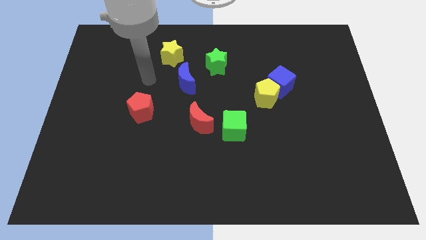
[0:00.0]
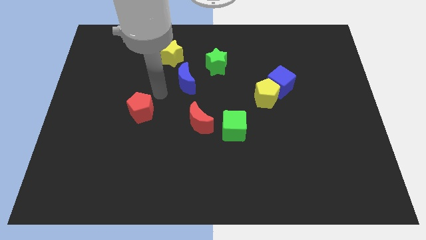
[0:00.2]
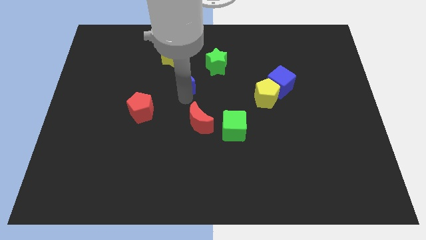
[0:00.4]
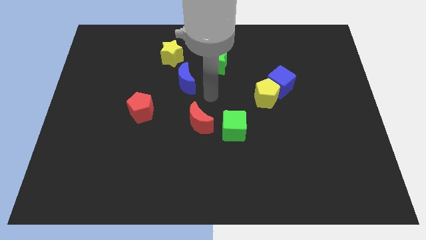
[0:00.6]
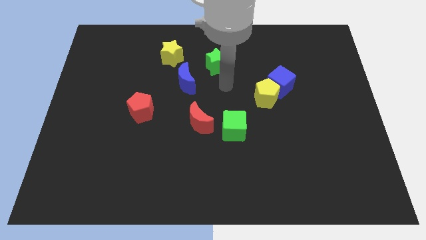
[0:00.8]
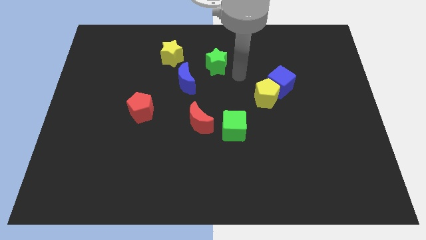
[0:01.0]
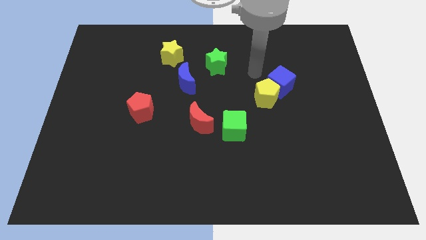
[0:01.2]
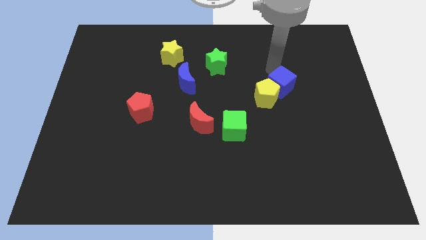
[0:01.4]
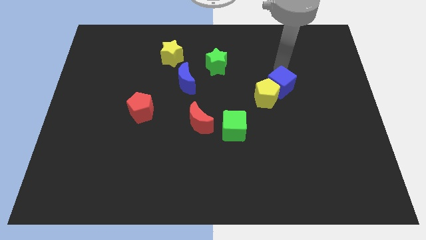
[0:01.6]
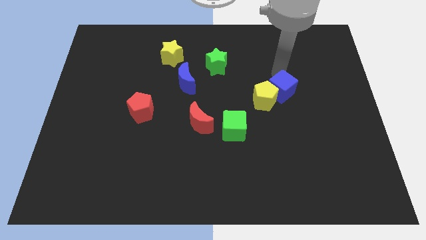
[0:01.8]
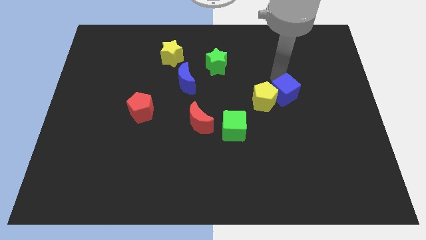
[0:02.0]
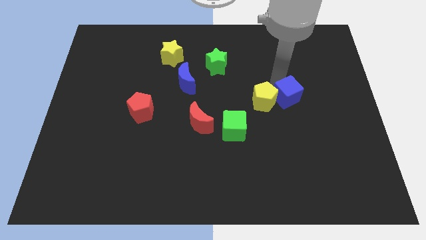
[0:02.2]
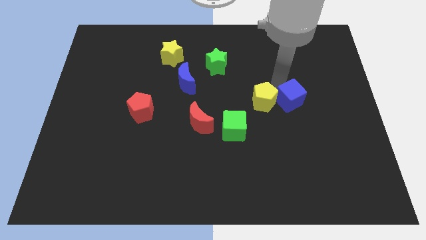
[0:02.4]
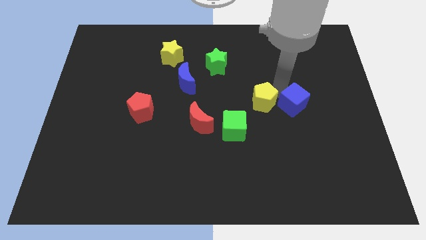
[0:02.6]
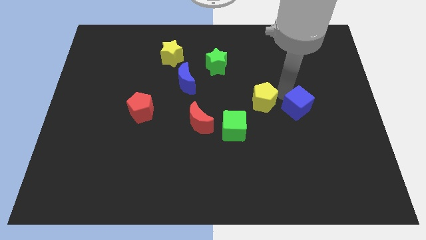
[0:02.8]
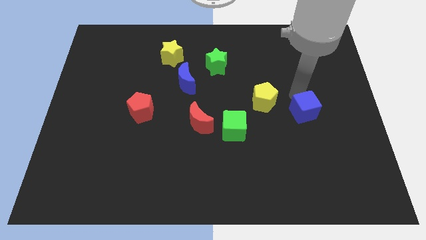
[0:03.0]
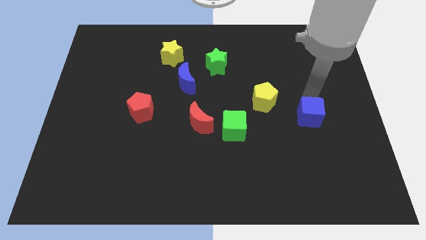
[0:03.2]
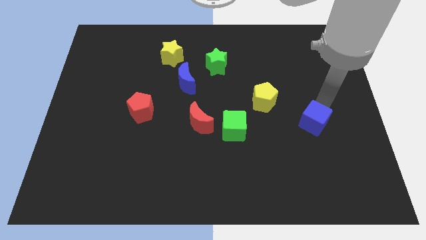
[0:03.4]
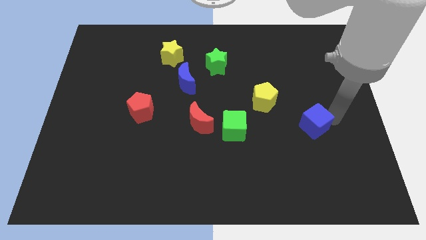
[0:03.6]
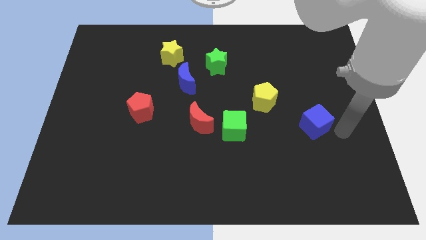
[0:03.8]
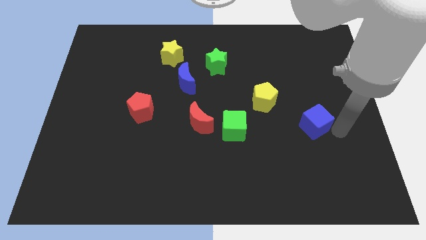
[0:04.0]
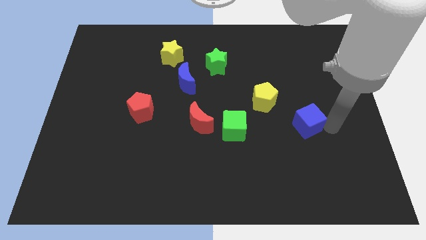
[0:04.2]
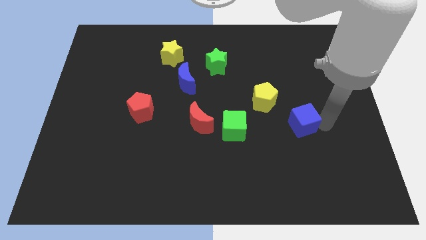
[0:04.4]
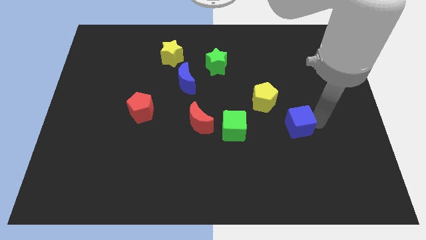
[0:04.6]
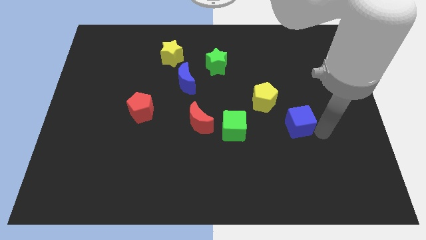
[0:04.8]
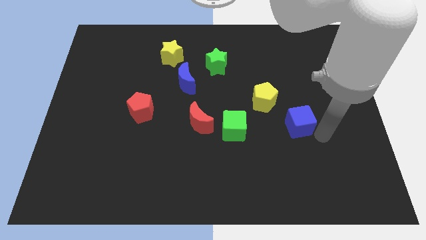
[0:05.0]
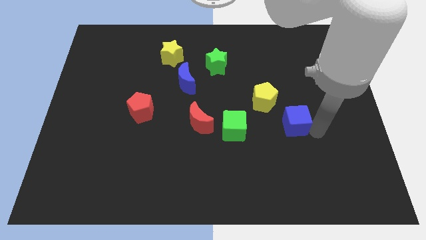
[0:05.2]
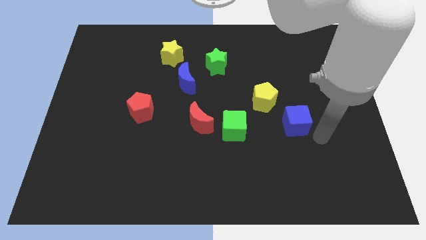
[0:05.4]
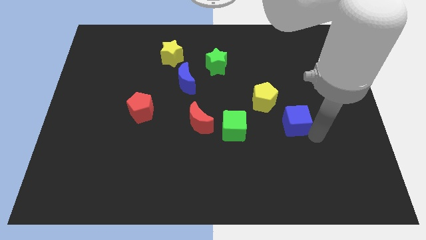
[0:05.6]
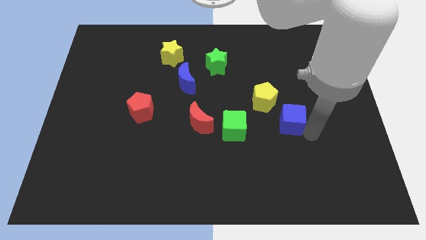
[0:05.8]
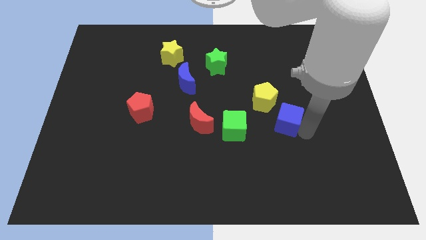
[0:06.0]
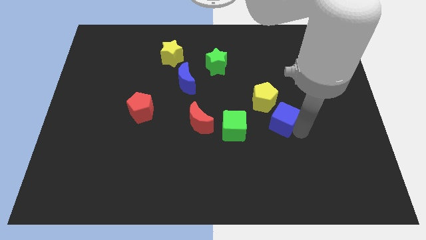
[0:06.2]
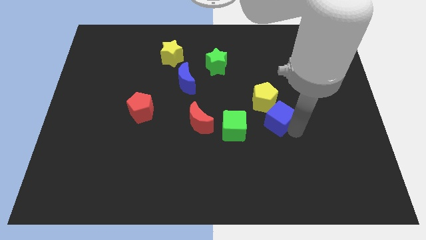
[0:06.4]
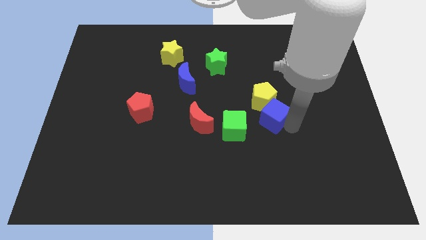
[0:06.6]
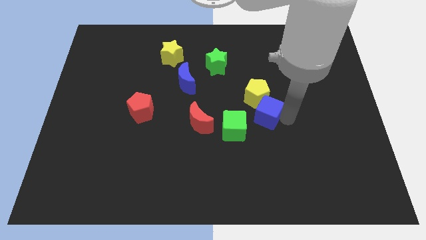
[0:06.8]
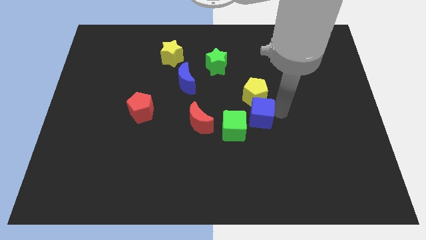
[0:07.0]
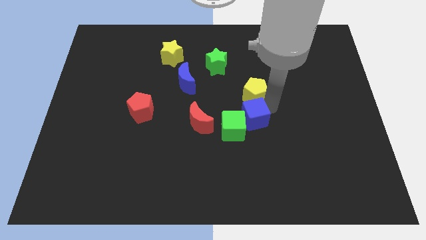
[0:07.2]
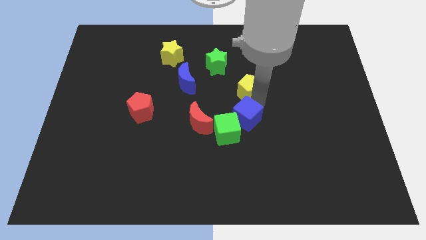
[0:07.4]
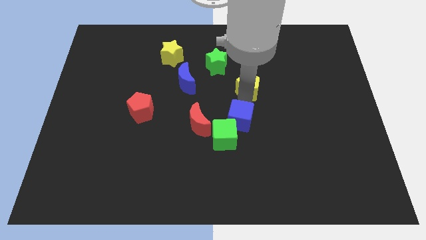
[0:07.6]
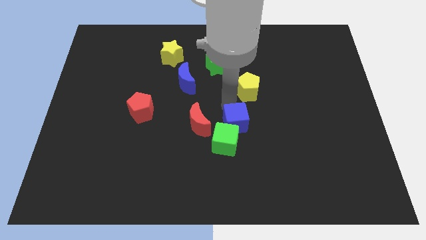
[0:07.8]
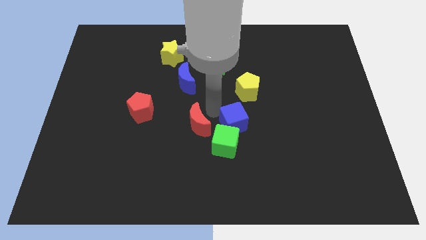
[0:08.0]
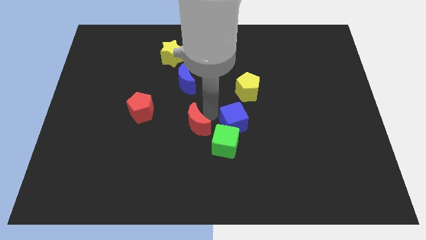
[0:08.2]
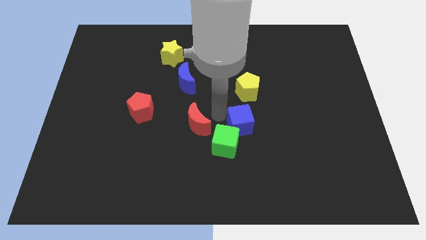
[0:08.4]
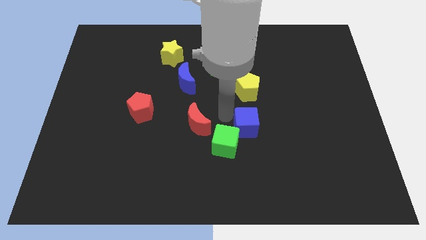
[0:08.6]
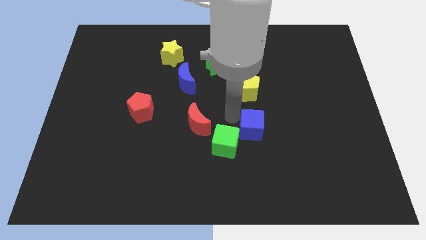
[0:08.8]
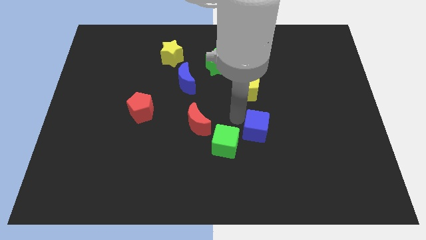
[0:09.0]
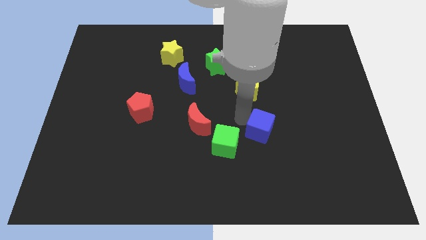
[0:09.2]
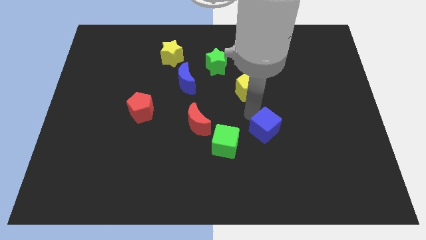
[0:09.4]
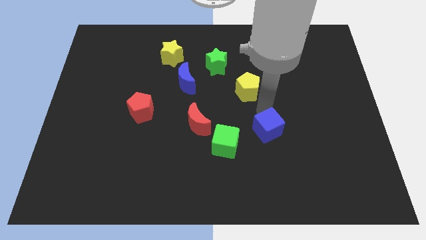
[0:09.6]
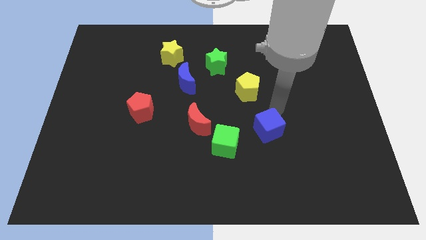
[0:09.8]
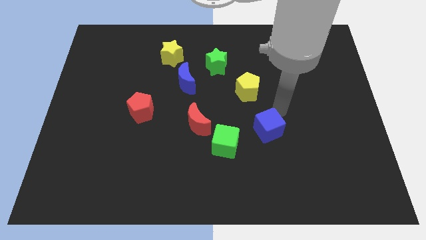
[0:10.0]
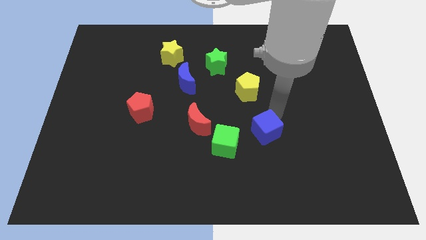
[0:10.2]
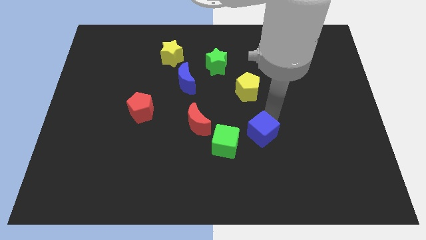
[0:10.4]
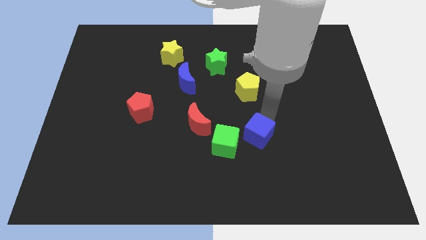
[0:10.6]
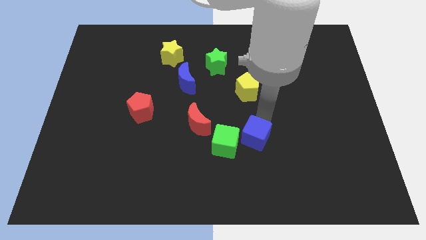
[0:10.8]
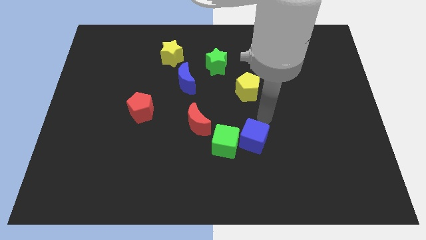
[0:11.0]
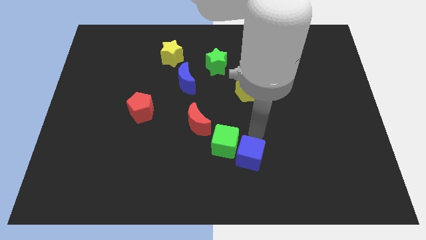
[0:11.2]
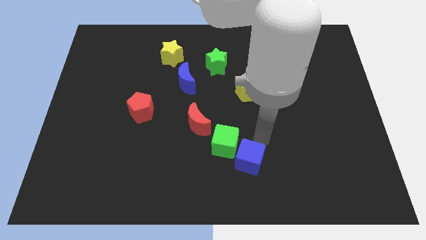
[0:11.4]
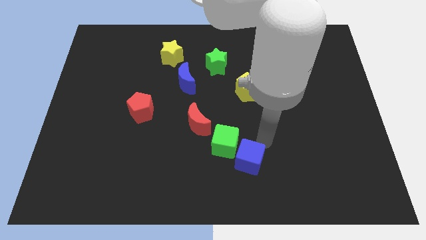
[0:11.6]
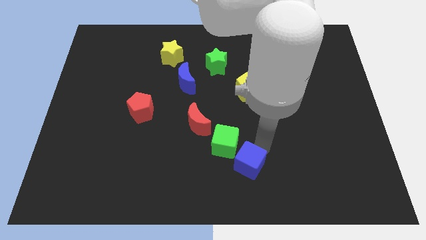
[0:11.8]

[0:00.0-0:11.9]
push the blue cube to the bottom side of the green cube

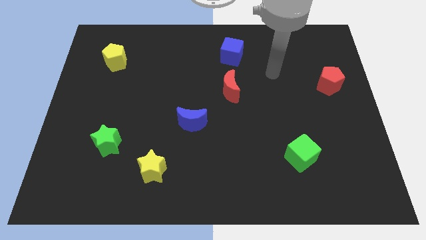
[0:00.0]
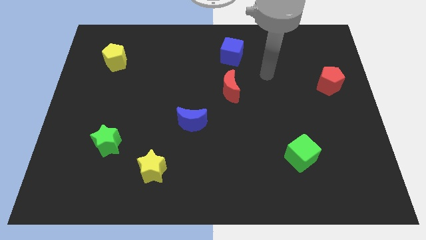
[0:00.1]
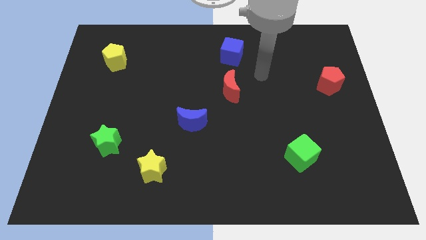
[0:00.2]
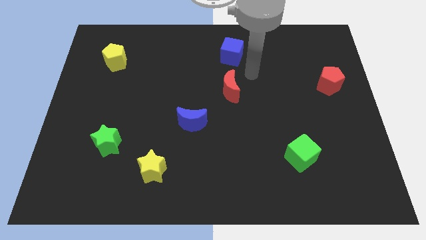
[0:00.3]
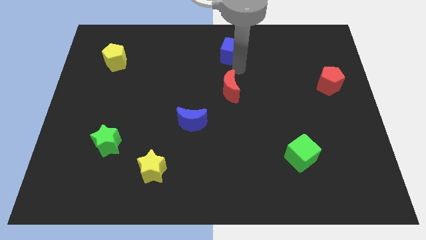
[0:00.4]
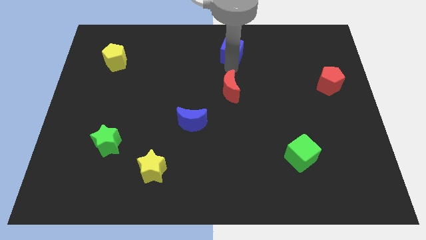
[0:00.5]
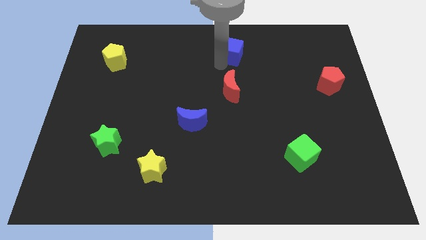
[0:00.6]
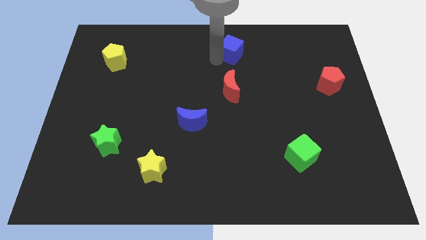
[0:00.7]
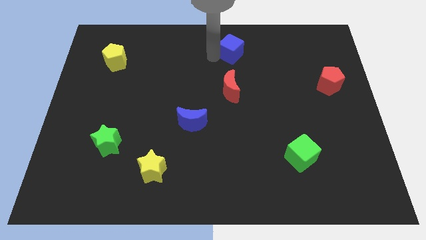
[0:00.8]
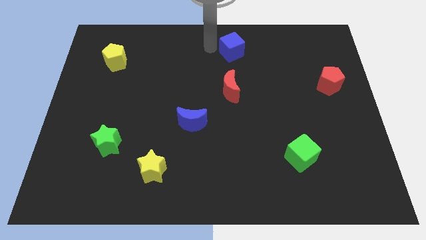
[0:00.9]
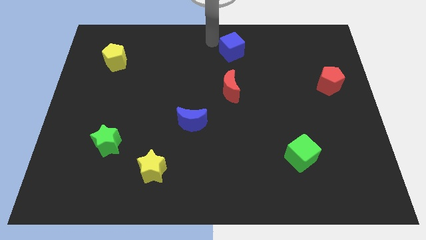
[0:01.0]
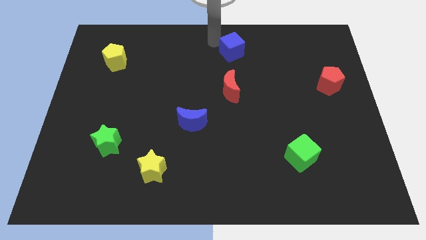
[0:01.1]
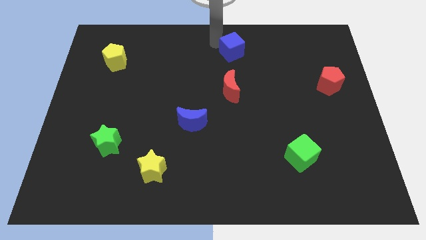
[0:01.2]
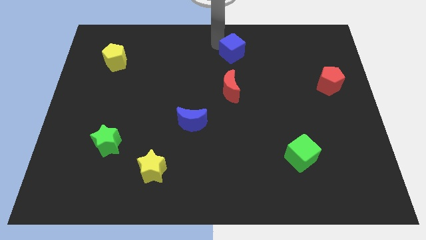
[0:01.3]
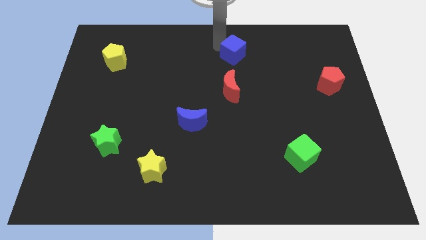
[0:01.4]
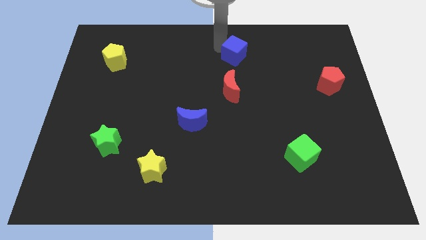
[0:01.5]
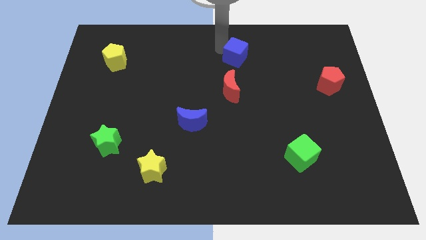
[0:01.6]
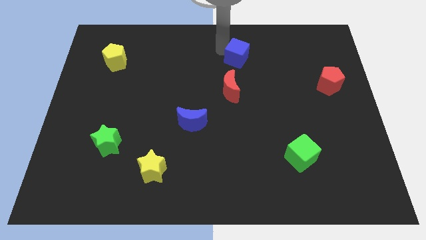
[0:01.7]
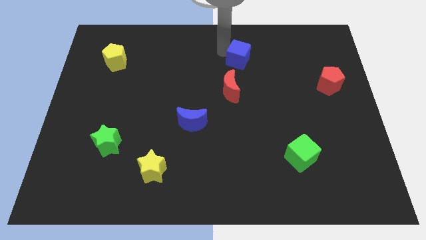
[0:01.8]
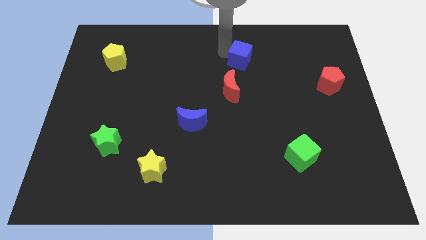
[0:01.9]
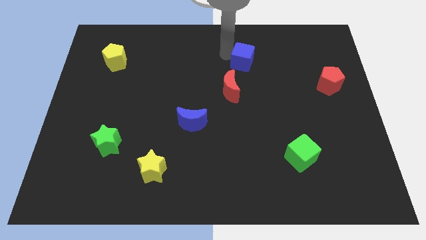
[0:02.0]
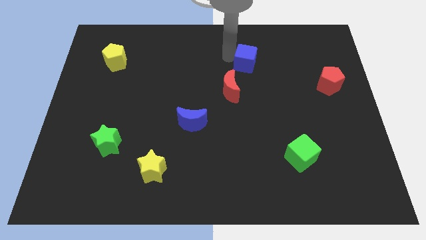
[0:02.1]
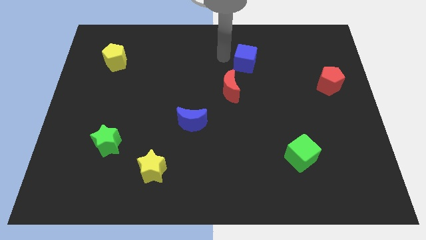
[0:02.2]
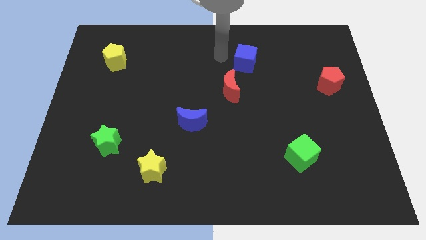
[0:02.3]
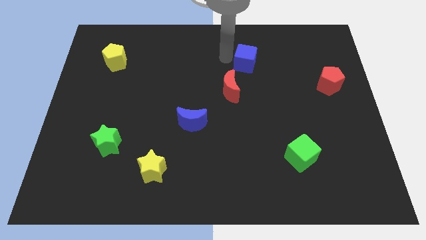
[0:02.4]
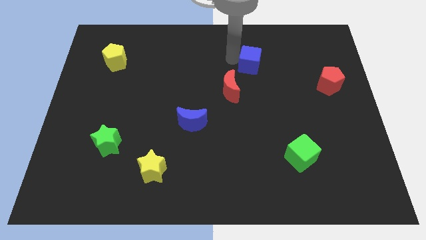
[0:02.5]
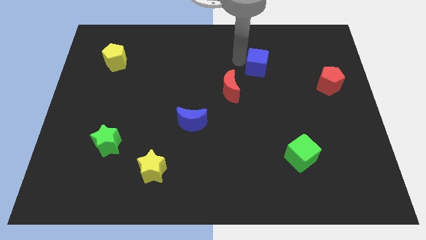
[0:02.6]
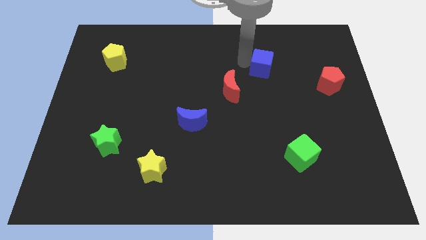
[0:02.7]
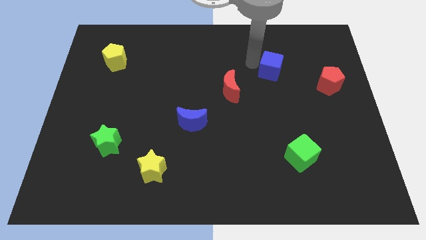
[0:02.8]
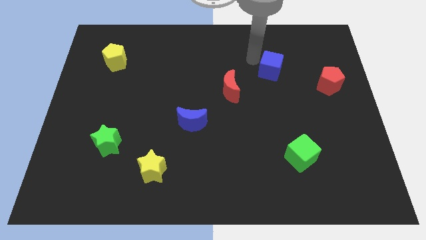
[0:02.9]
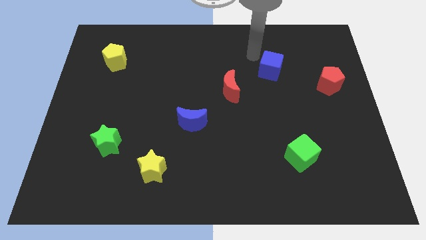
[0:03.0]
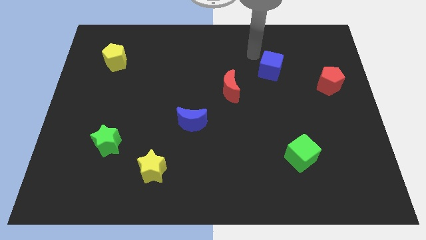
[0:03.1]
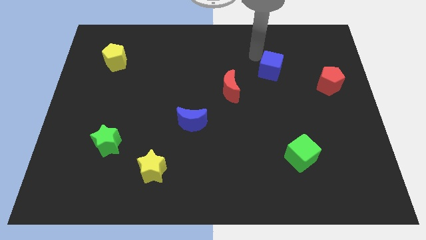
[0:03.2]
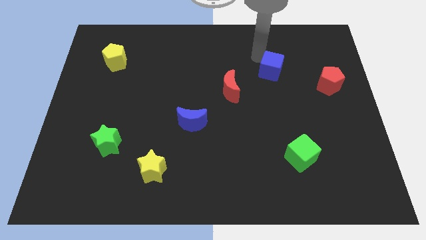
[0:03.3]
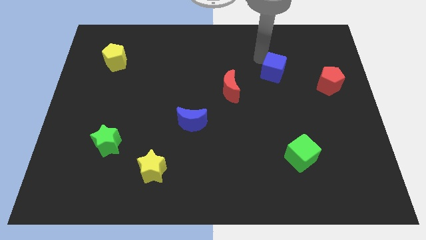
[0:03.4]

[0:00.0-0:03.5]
slide the blue cube to the left side of the red pentagon
